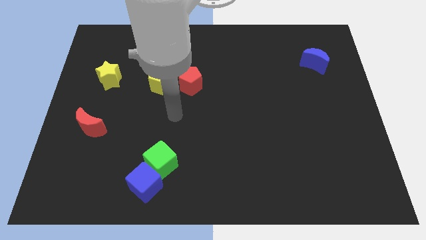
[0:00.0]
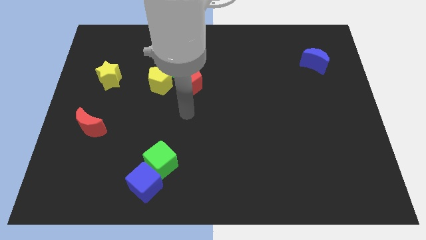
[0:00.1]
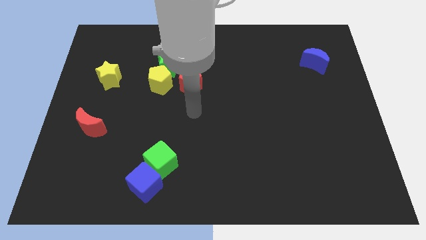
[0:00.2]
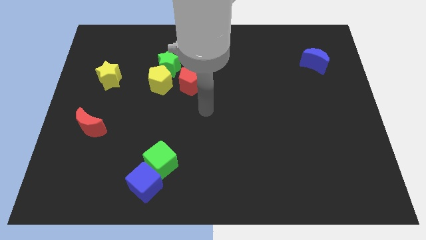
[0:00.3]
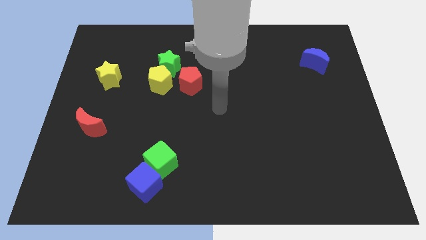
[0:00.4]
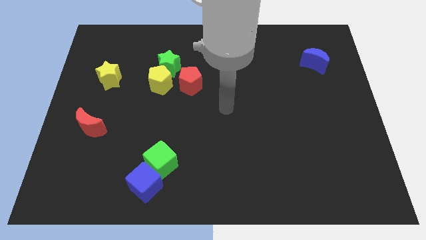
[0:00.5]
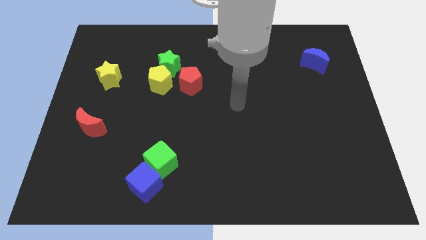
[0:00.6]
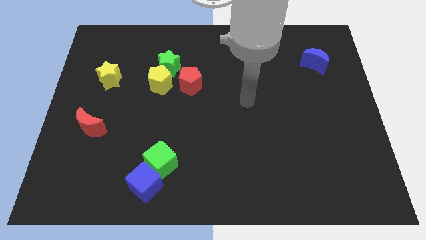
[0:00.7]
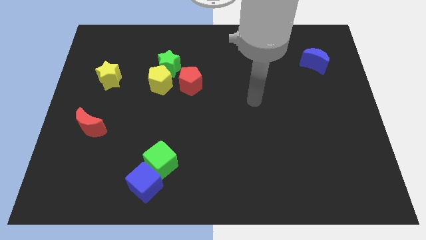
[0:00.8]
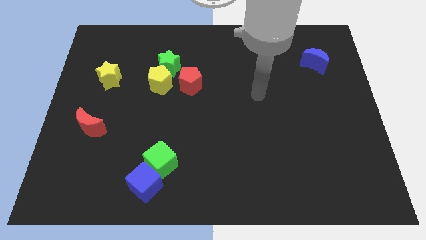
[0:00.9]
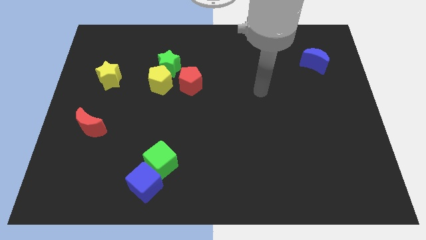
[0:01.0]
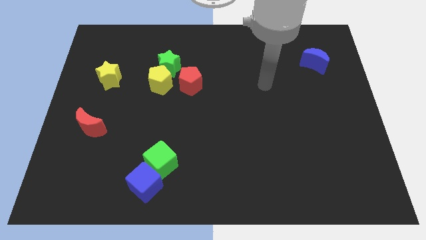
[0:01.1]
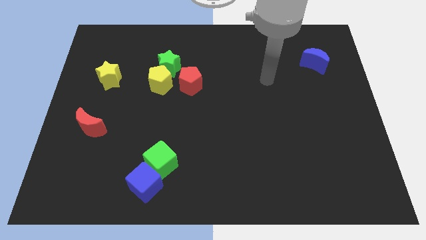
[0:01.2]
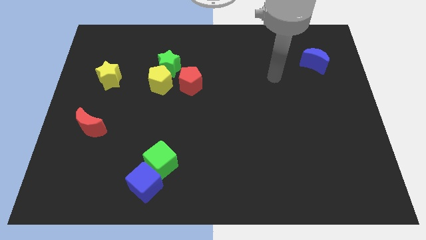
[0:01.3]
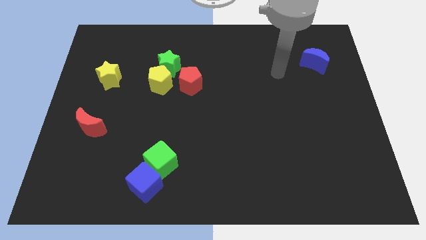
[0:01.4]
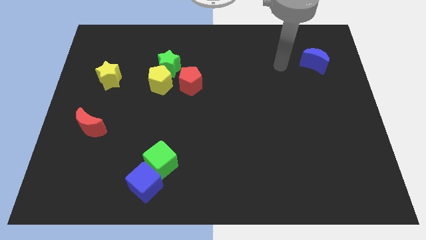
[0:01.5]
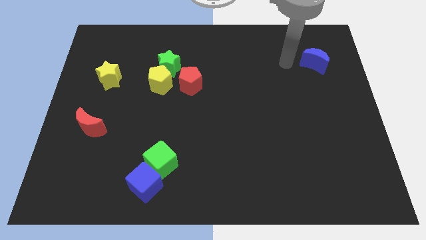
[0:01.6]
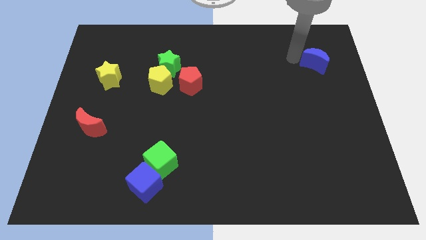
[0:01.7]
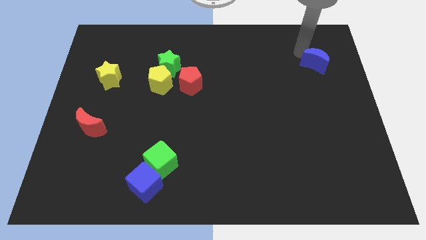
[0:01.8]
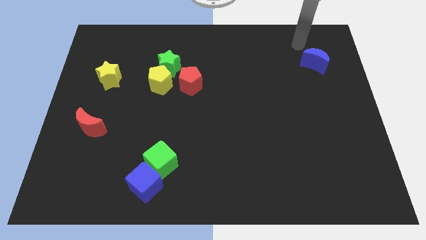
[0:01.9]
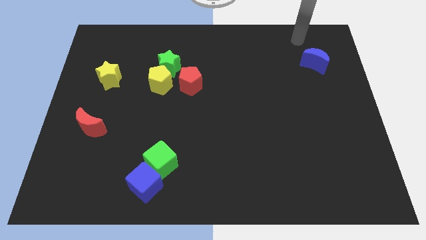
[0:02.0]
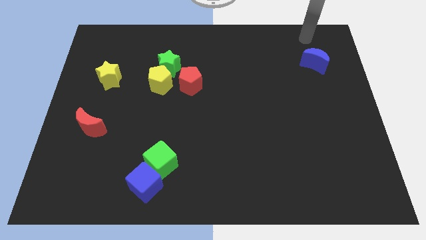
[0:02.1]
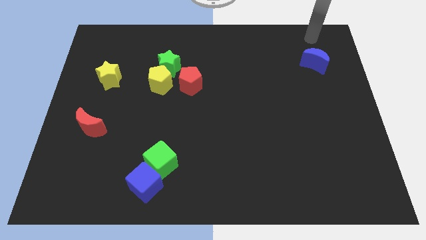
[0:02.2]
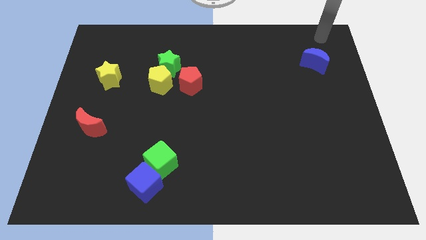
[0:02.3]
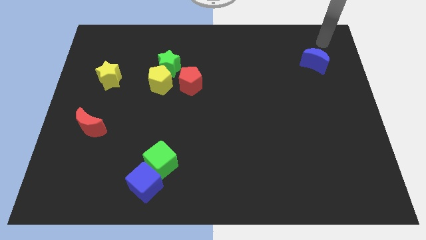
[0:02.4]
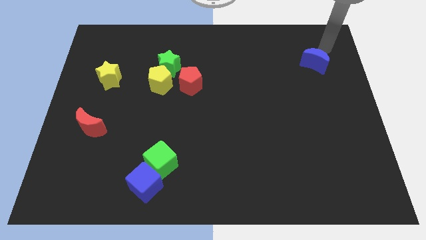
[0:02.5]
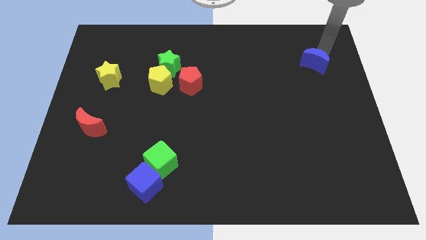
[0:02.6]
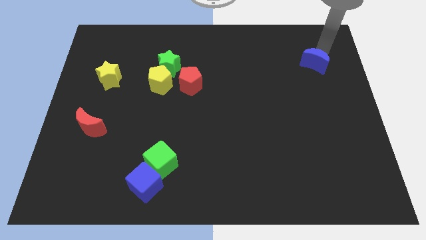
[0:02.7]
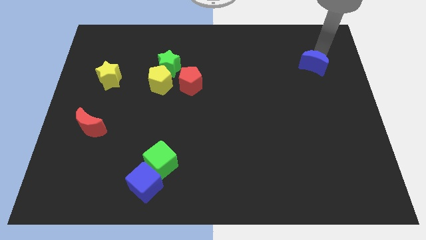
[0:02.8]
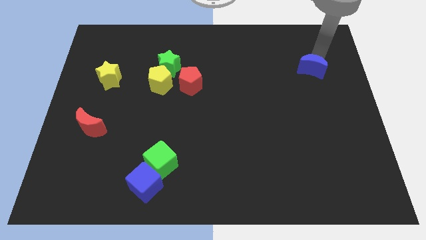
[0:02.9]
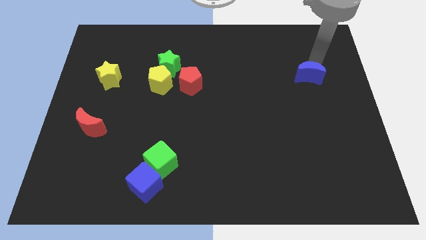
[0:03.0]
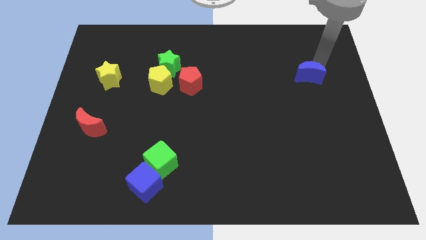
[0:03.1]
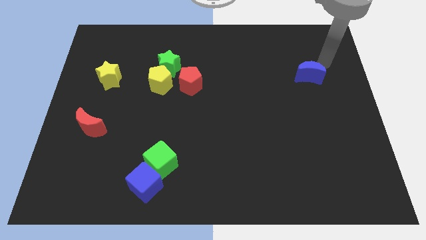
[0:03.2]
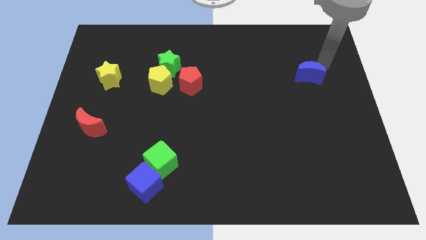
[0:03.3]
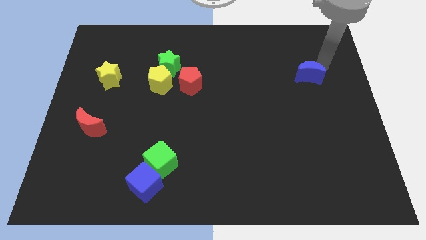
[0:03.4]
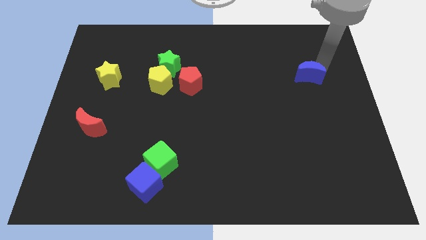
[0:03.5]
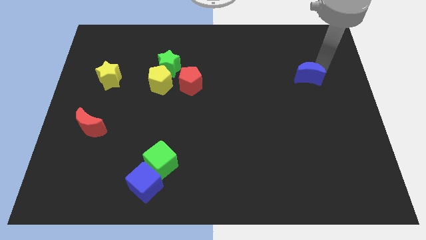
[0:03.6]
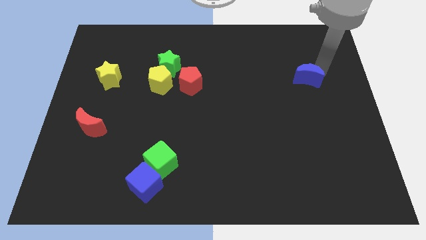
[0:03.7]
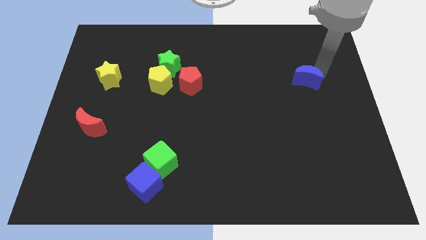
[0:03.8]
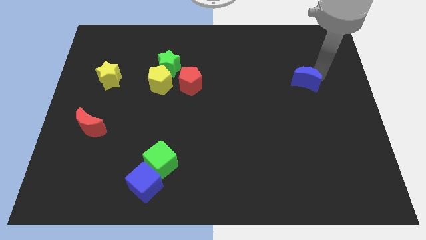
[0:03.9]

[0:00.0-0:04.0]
move the blue moon somewhat downwards and left diagonally

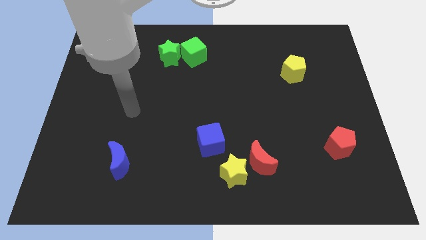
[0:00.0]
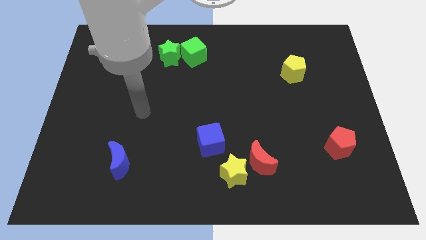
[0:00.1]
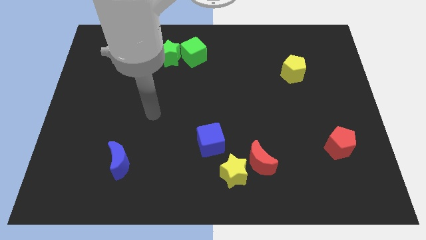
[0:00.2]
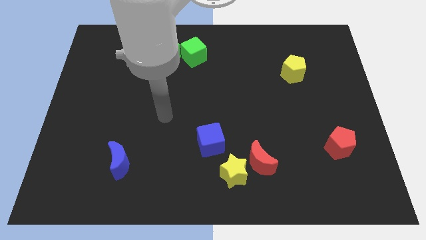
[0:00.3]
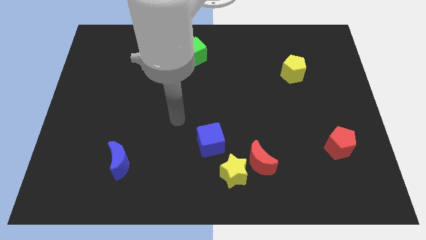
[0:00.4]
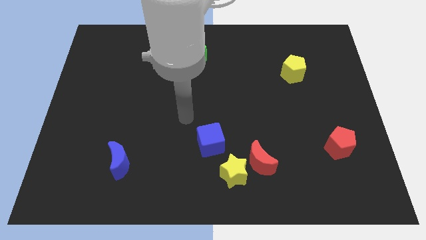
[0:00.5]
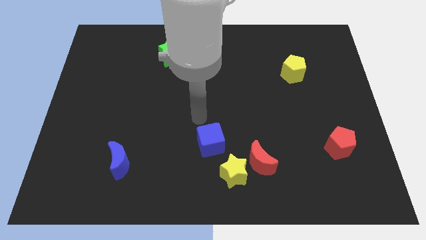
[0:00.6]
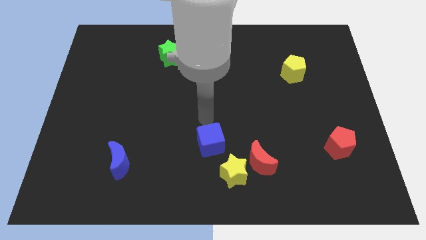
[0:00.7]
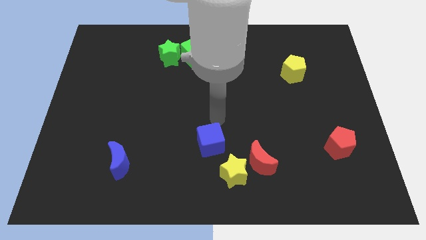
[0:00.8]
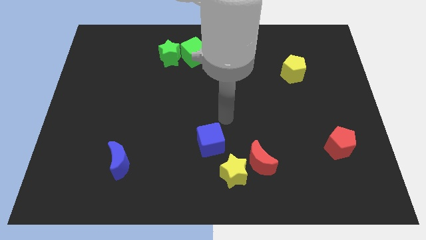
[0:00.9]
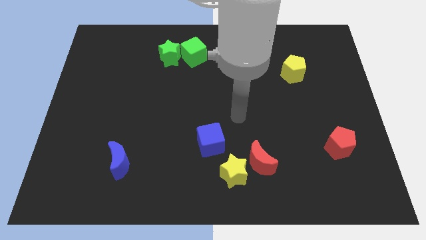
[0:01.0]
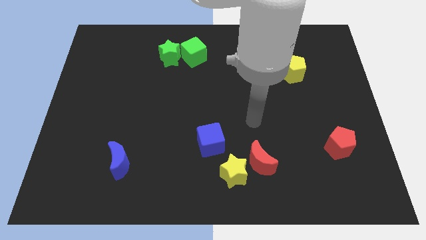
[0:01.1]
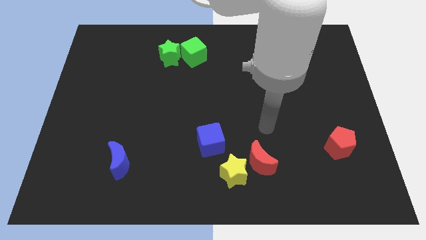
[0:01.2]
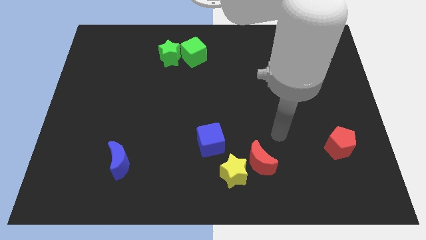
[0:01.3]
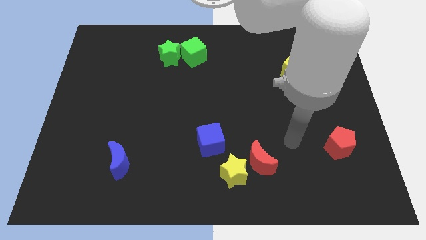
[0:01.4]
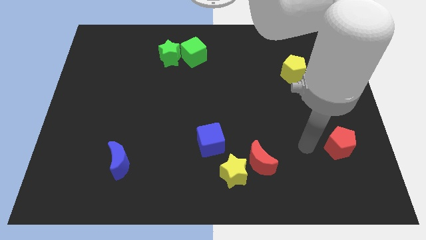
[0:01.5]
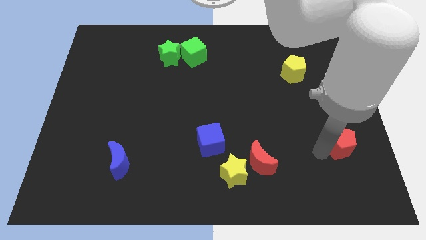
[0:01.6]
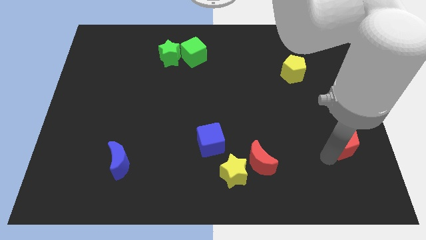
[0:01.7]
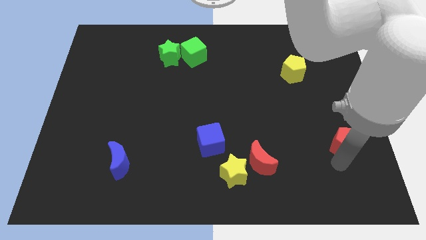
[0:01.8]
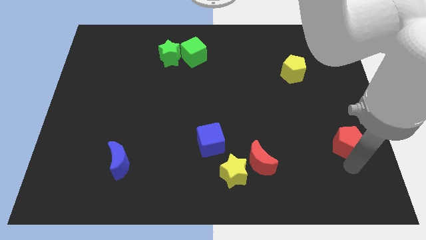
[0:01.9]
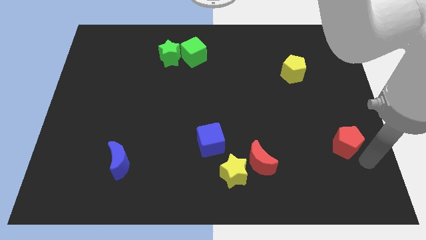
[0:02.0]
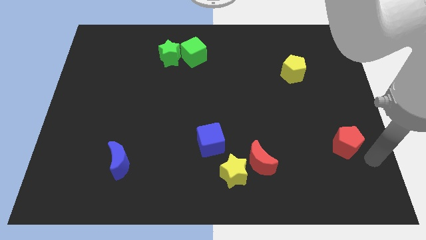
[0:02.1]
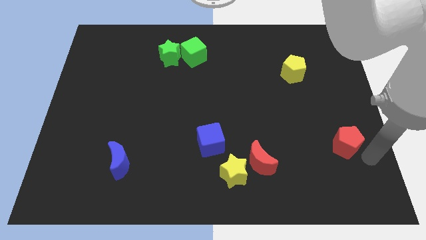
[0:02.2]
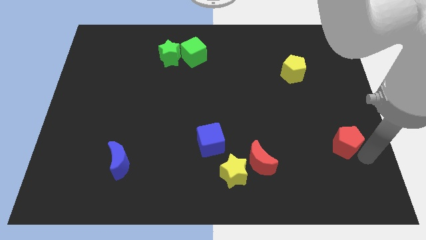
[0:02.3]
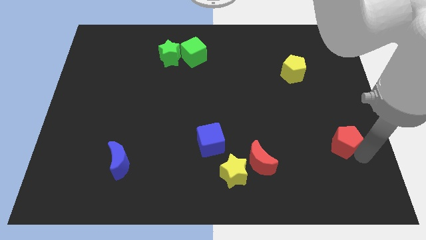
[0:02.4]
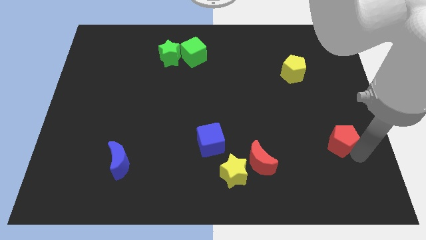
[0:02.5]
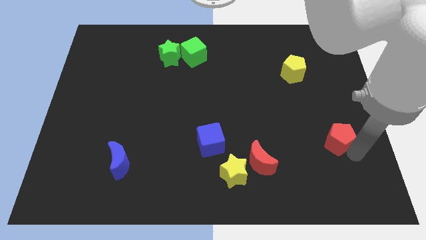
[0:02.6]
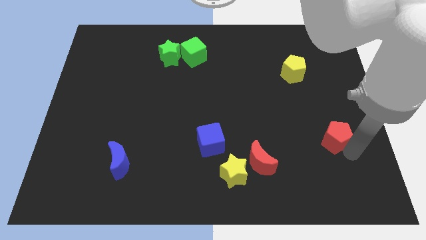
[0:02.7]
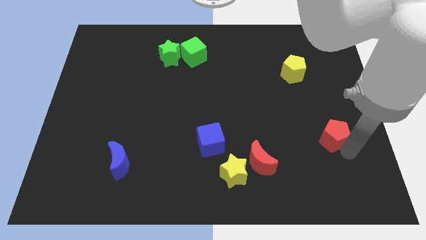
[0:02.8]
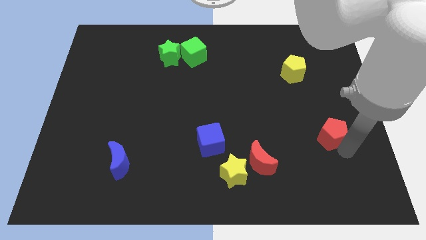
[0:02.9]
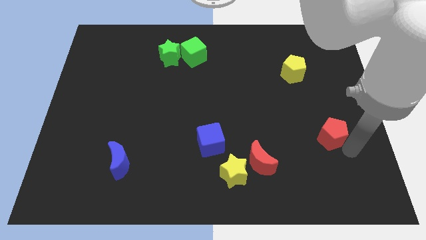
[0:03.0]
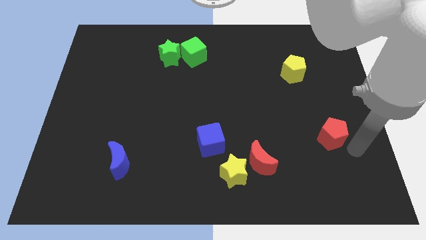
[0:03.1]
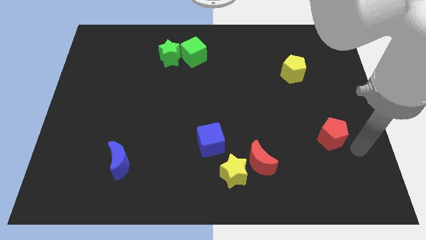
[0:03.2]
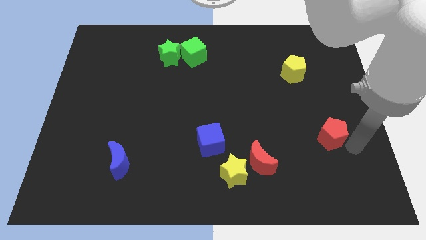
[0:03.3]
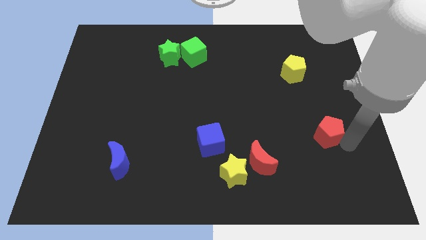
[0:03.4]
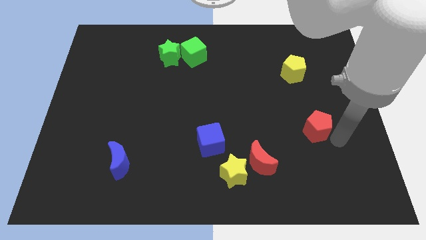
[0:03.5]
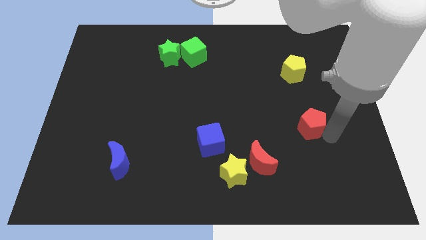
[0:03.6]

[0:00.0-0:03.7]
slightly move the red pentagon up and then left
